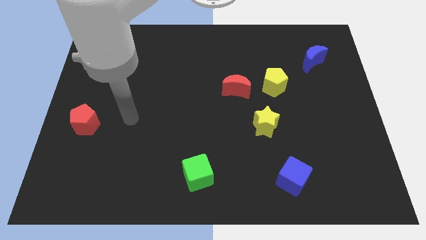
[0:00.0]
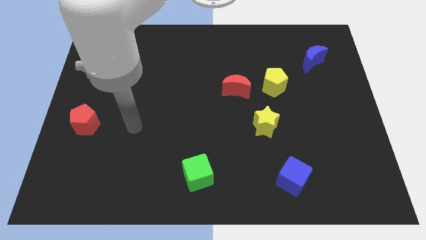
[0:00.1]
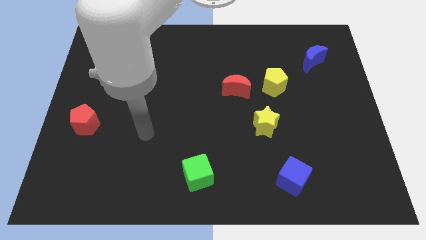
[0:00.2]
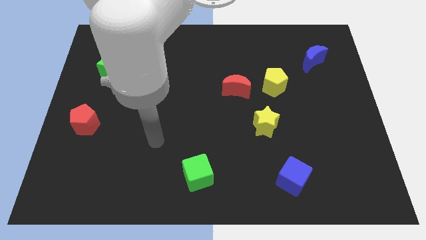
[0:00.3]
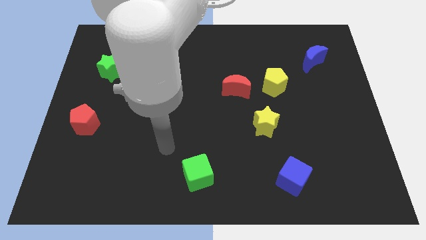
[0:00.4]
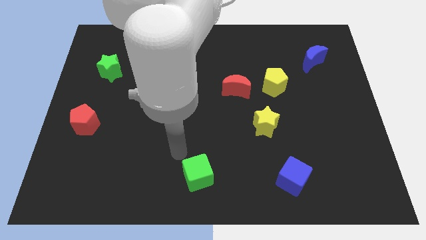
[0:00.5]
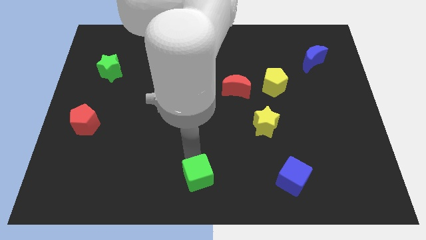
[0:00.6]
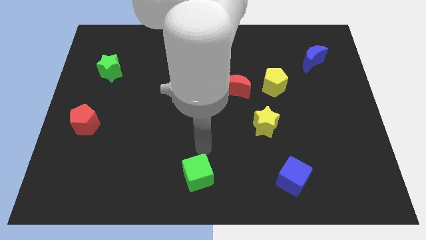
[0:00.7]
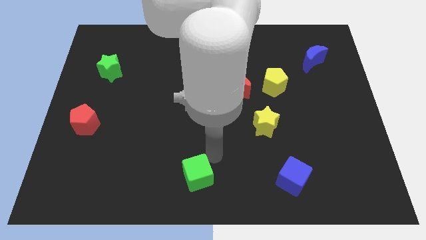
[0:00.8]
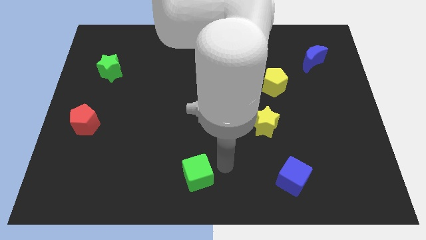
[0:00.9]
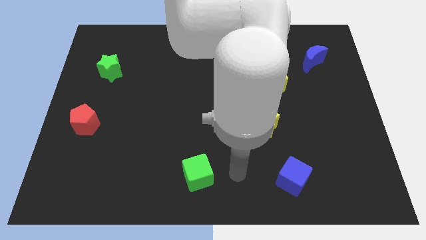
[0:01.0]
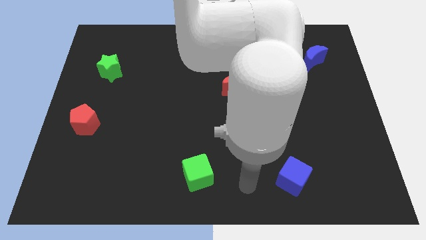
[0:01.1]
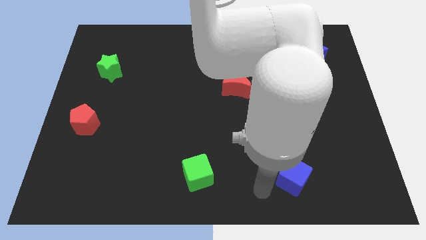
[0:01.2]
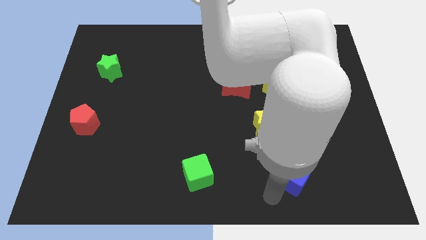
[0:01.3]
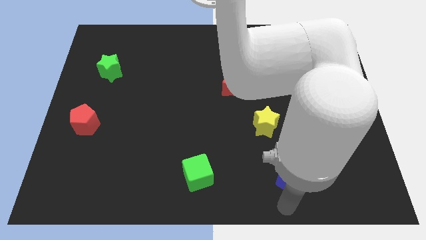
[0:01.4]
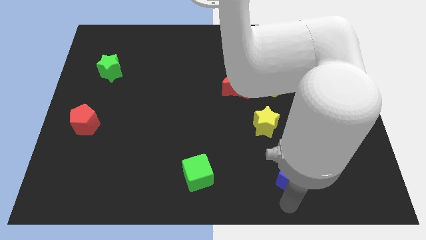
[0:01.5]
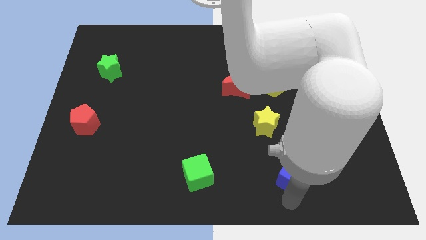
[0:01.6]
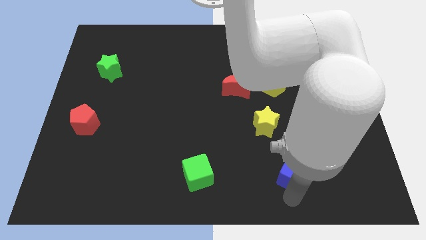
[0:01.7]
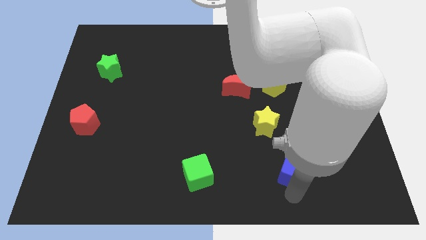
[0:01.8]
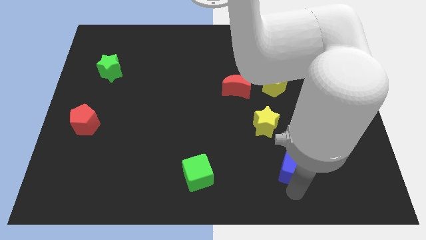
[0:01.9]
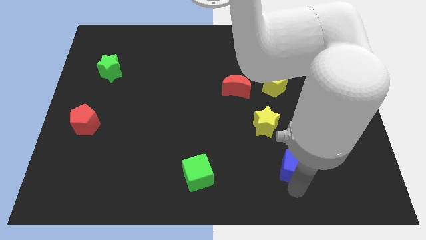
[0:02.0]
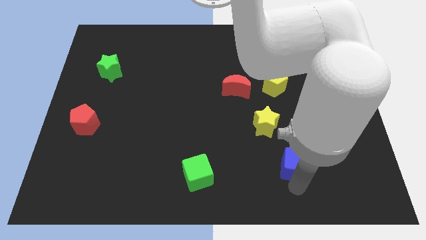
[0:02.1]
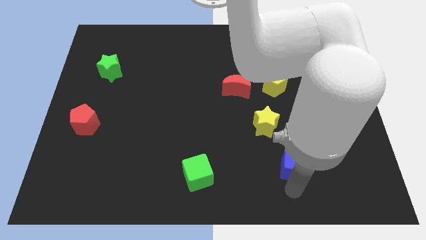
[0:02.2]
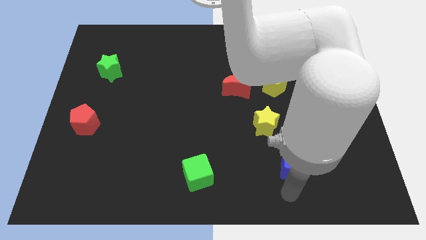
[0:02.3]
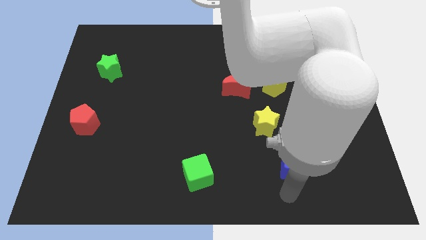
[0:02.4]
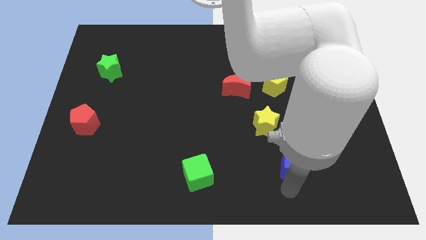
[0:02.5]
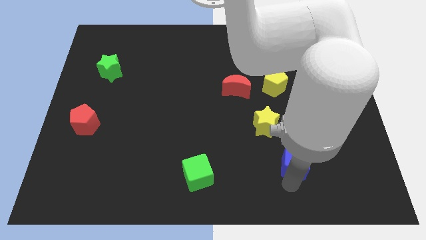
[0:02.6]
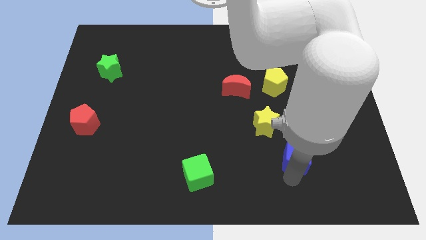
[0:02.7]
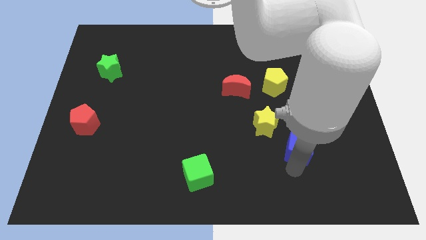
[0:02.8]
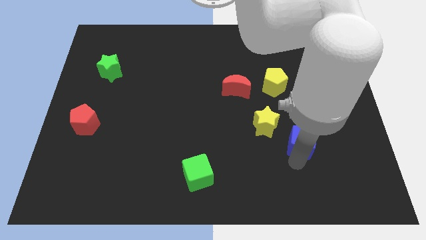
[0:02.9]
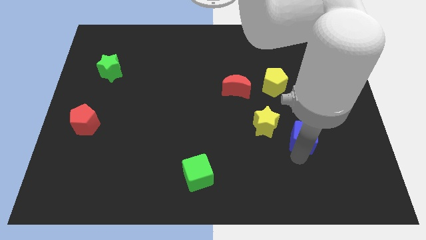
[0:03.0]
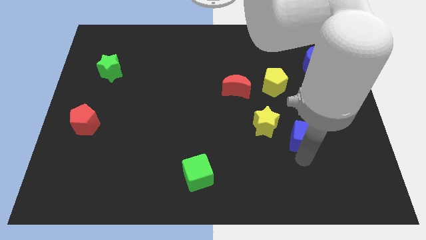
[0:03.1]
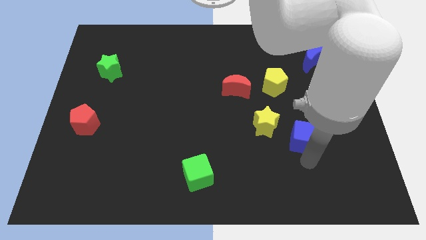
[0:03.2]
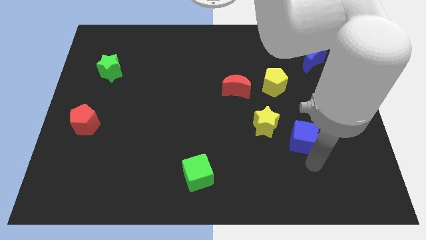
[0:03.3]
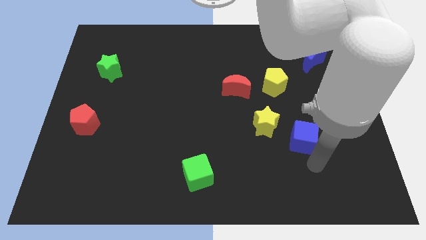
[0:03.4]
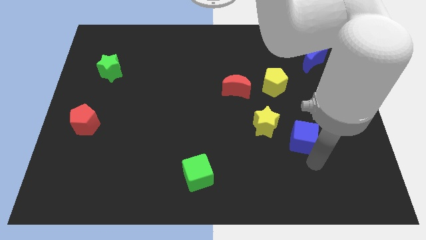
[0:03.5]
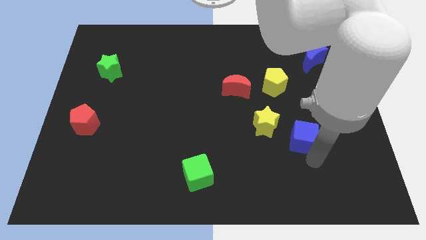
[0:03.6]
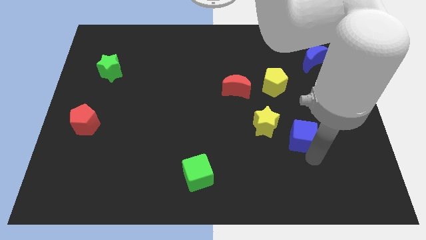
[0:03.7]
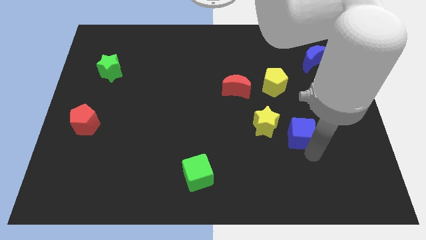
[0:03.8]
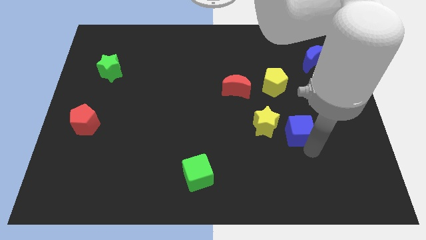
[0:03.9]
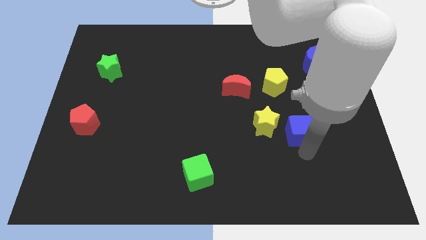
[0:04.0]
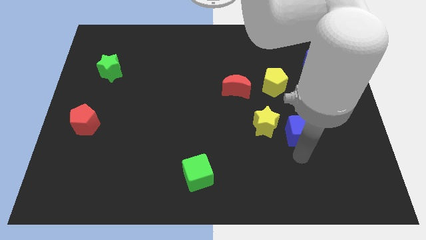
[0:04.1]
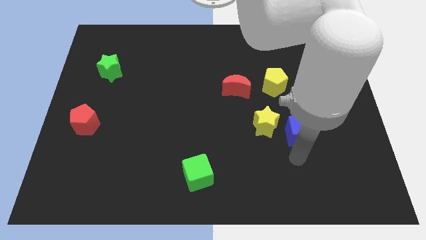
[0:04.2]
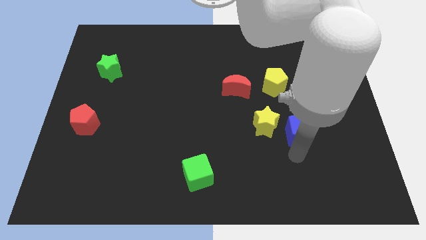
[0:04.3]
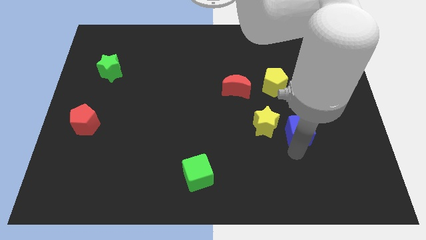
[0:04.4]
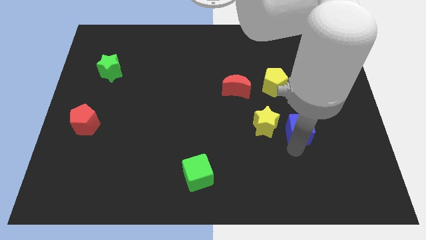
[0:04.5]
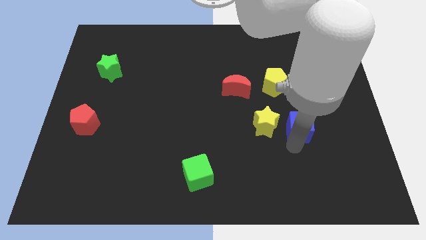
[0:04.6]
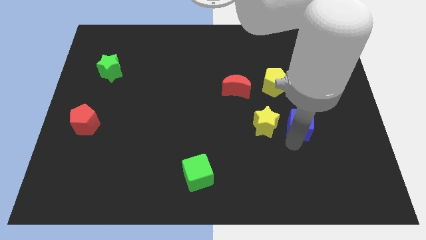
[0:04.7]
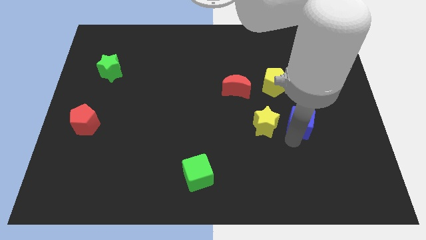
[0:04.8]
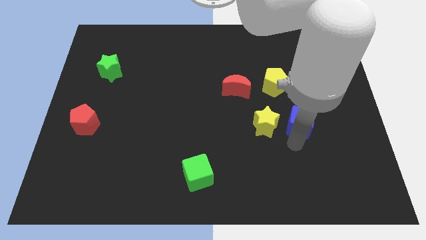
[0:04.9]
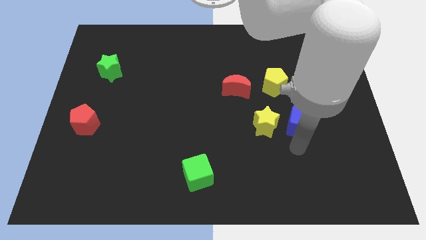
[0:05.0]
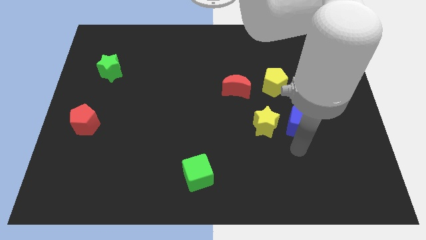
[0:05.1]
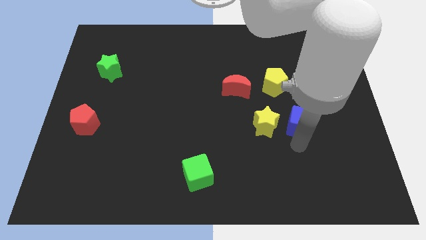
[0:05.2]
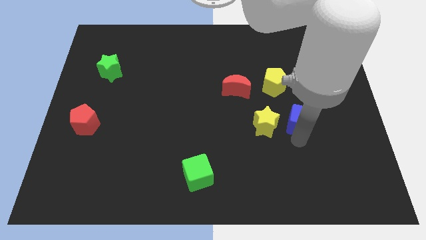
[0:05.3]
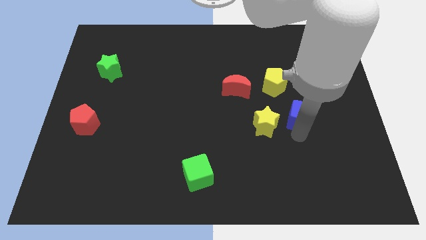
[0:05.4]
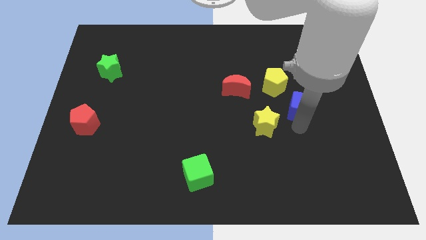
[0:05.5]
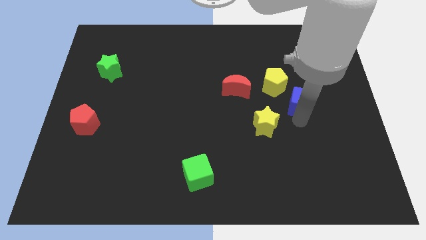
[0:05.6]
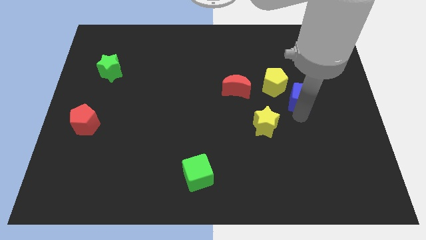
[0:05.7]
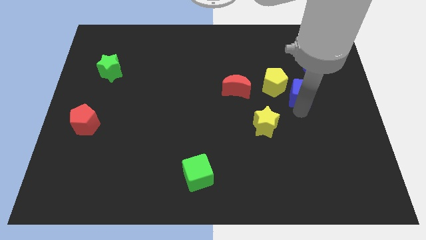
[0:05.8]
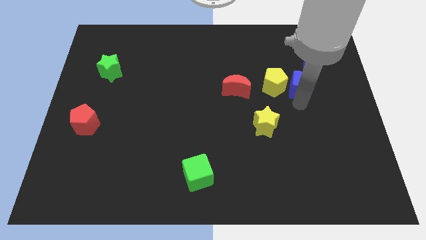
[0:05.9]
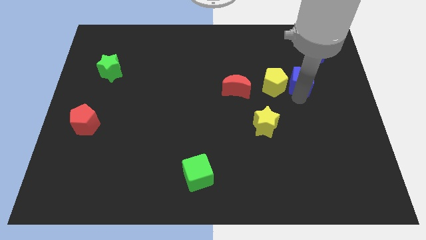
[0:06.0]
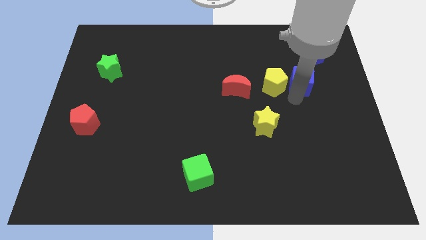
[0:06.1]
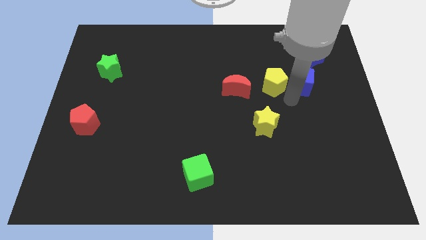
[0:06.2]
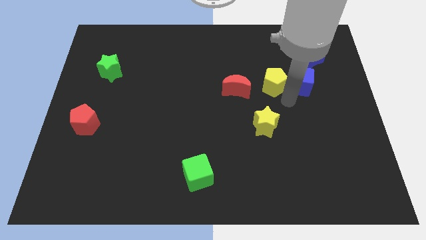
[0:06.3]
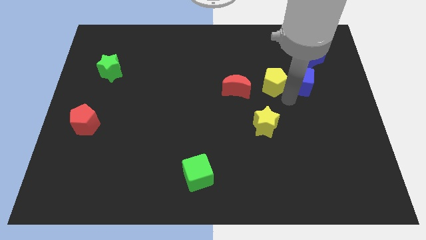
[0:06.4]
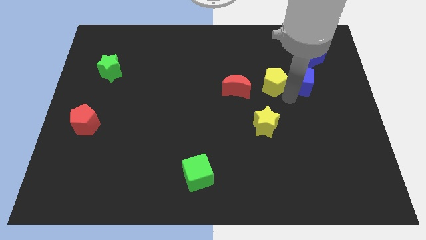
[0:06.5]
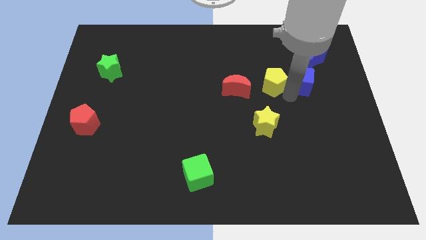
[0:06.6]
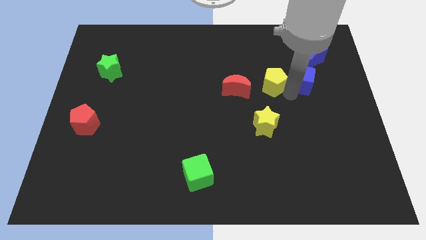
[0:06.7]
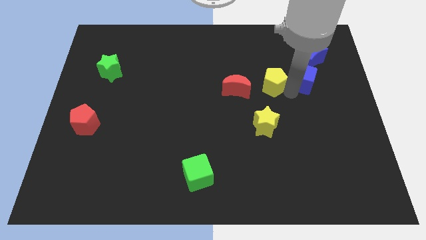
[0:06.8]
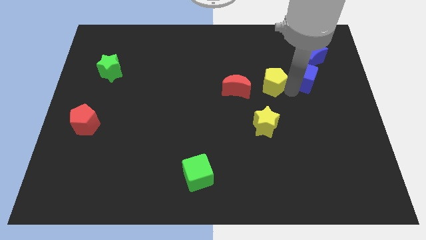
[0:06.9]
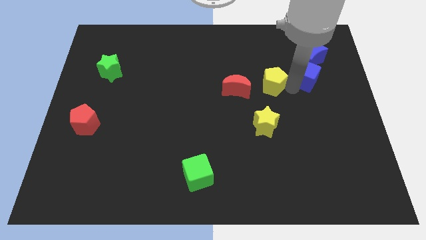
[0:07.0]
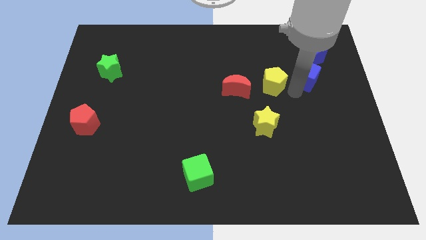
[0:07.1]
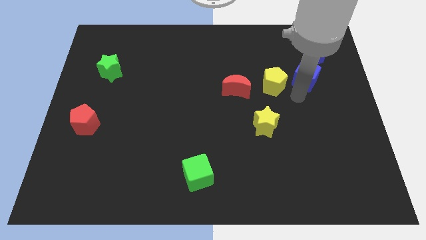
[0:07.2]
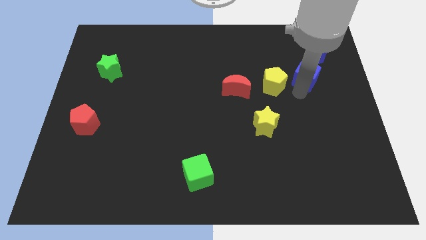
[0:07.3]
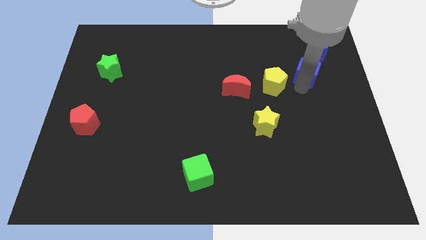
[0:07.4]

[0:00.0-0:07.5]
slide the blue cube next to the blue moon
